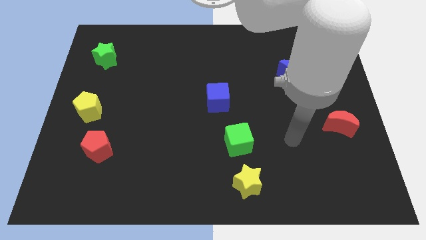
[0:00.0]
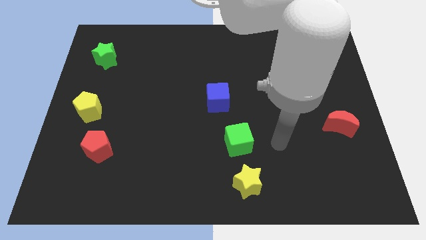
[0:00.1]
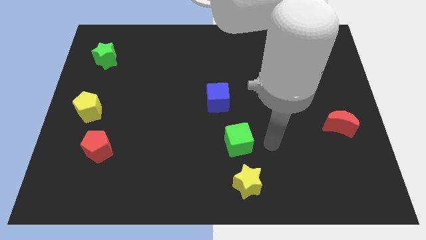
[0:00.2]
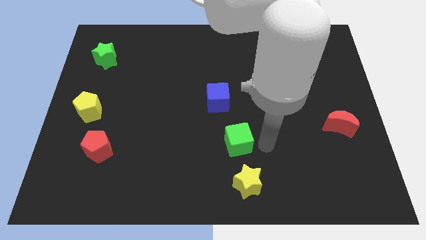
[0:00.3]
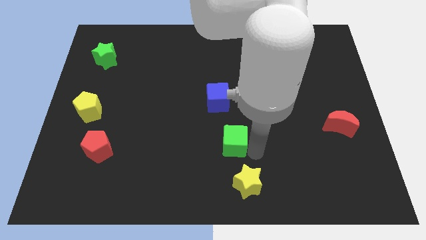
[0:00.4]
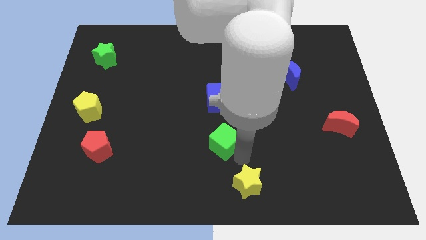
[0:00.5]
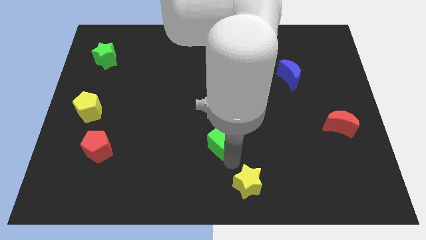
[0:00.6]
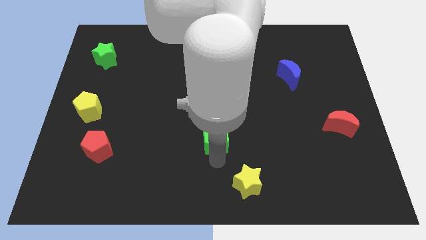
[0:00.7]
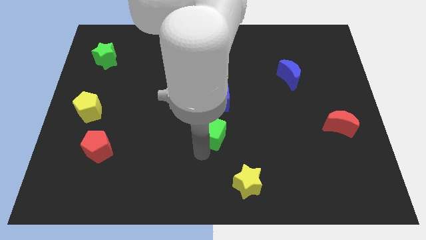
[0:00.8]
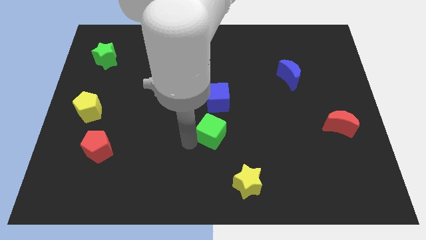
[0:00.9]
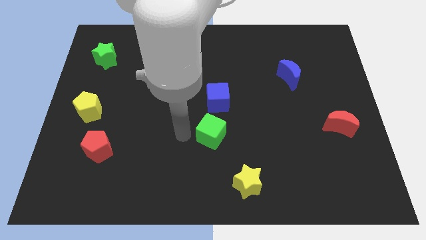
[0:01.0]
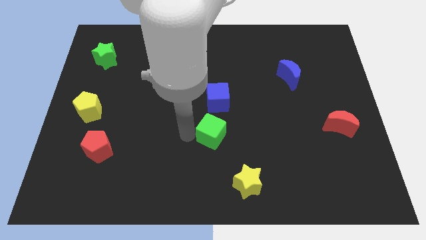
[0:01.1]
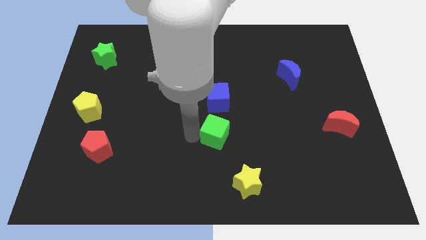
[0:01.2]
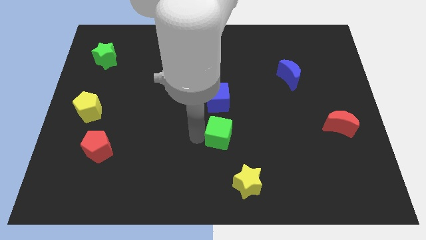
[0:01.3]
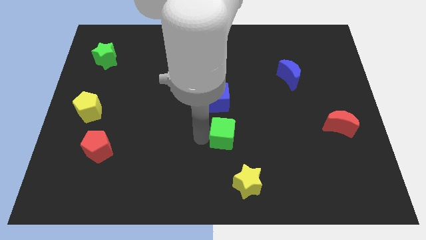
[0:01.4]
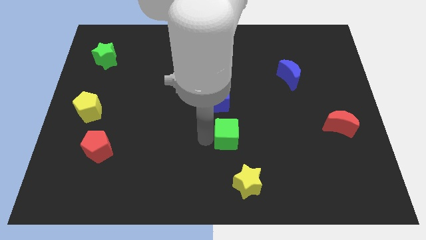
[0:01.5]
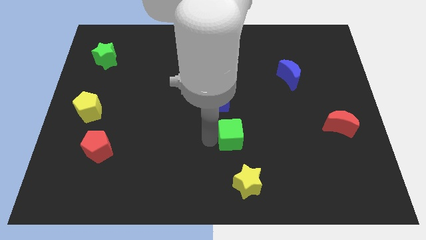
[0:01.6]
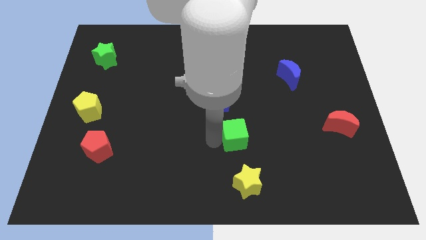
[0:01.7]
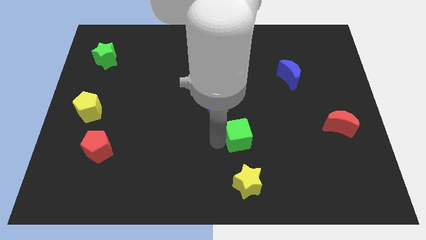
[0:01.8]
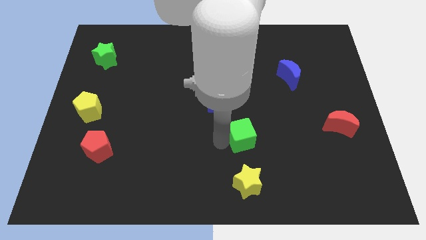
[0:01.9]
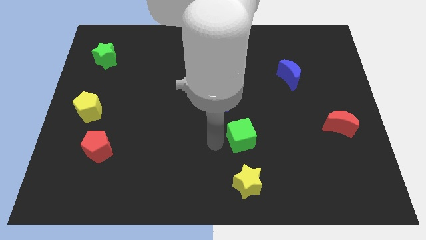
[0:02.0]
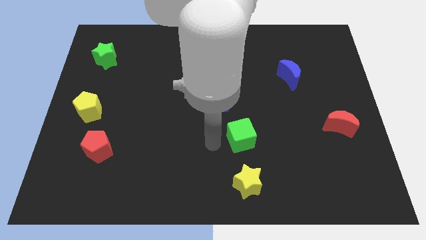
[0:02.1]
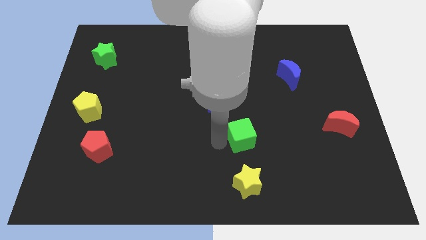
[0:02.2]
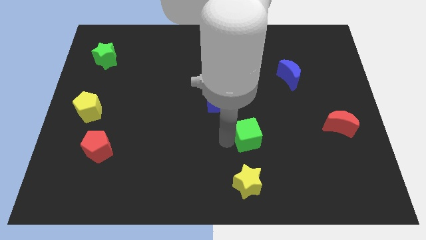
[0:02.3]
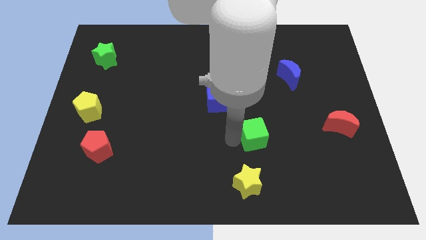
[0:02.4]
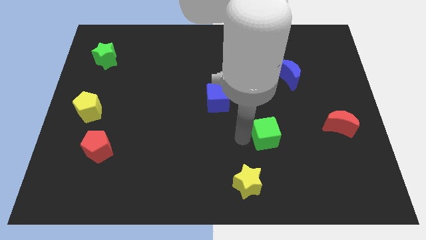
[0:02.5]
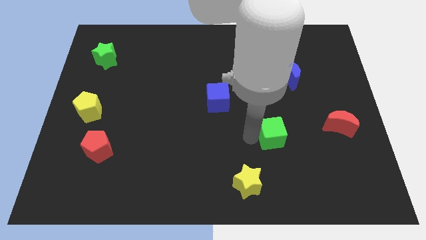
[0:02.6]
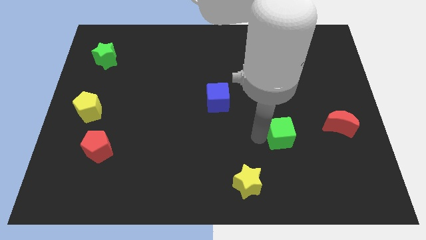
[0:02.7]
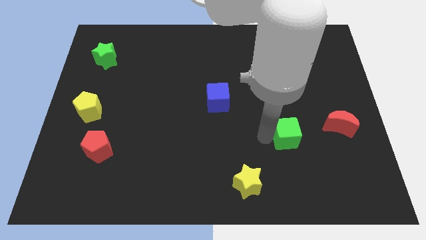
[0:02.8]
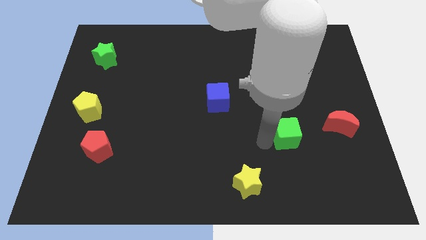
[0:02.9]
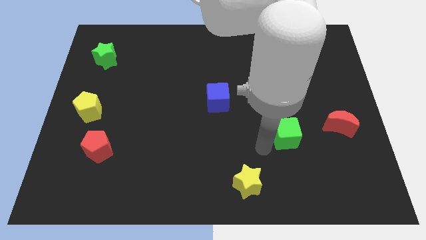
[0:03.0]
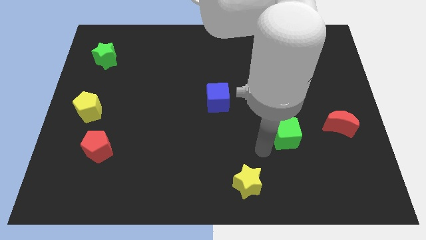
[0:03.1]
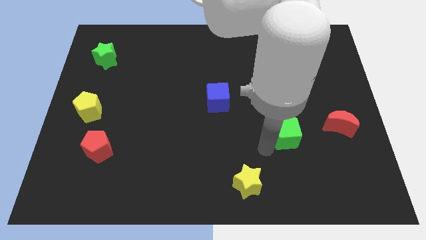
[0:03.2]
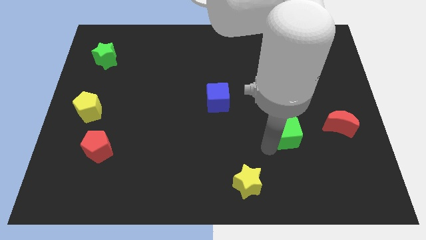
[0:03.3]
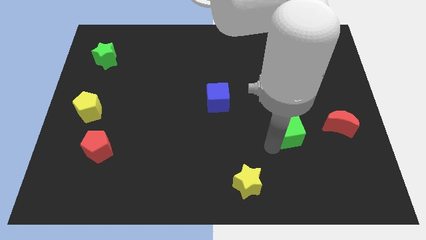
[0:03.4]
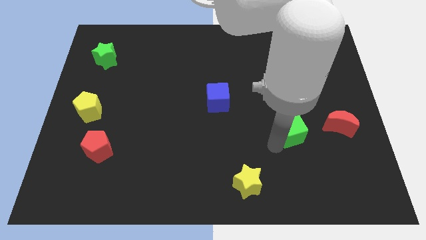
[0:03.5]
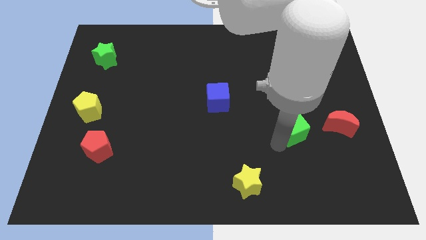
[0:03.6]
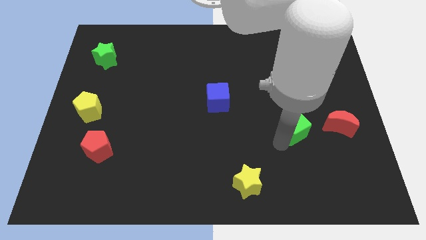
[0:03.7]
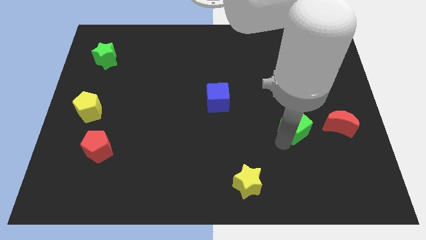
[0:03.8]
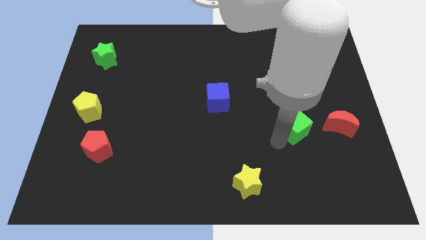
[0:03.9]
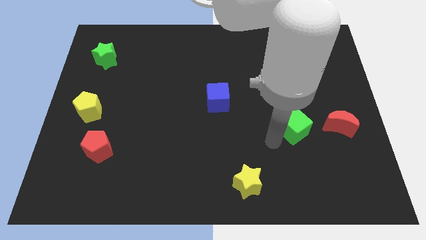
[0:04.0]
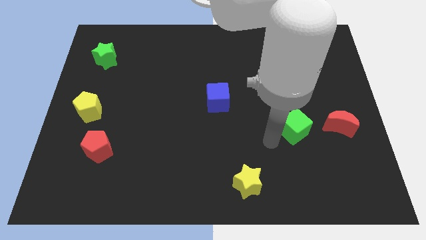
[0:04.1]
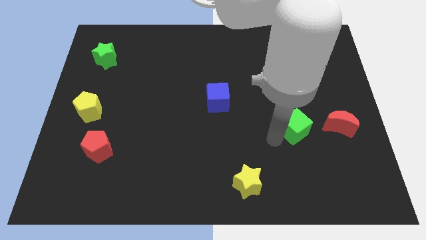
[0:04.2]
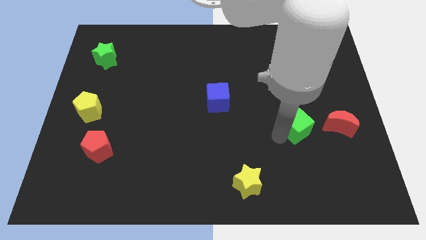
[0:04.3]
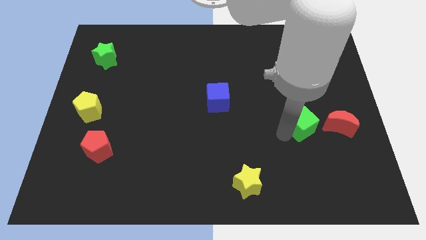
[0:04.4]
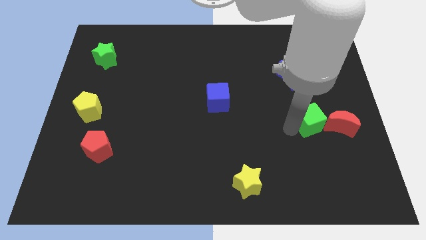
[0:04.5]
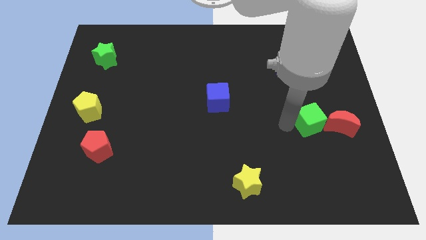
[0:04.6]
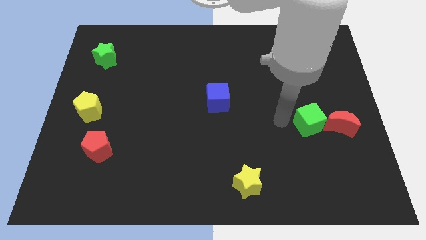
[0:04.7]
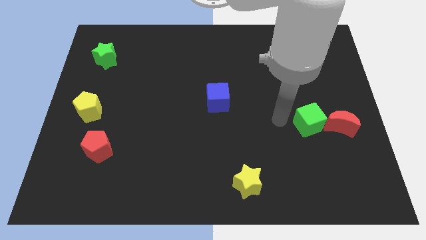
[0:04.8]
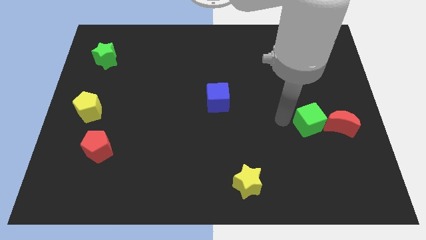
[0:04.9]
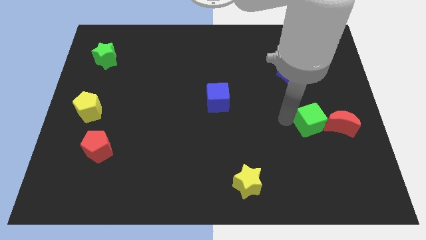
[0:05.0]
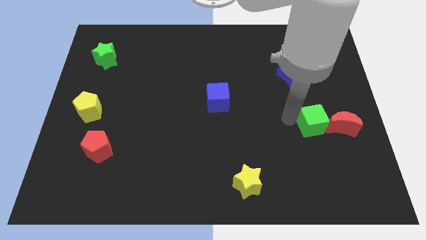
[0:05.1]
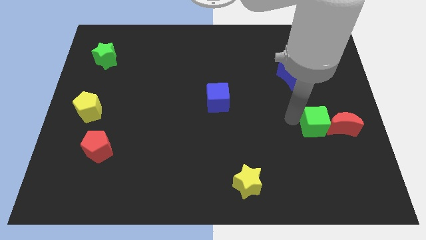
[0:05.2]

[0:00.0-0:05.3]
move the green cube to the red moon

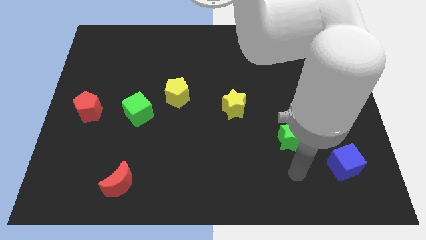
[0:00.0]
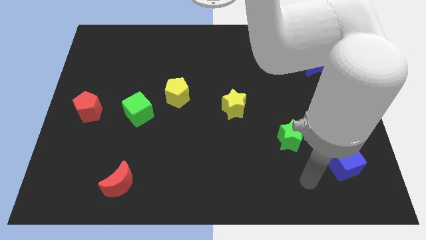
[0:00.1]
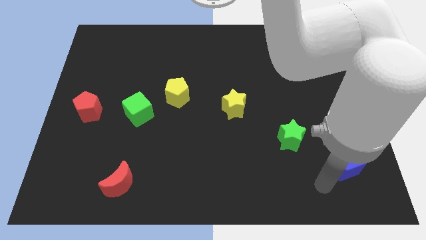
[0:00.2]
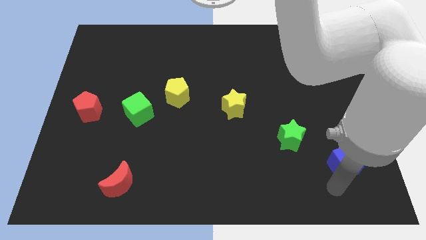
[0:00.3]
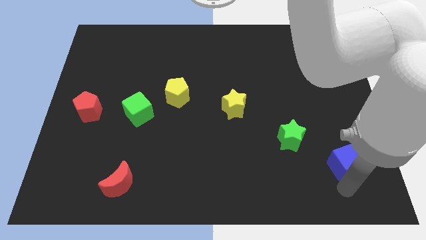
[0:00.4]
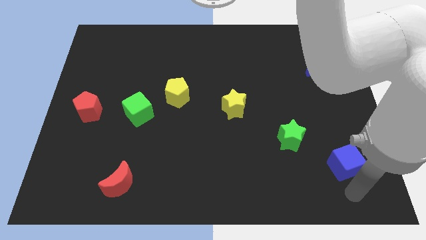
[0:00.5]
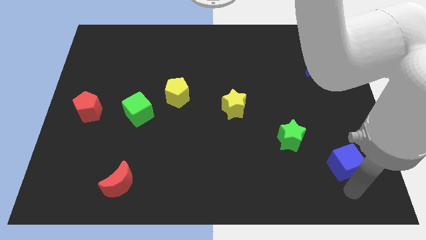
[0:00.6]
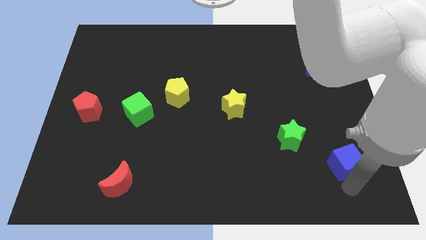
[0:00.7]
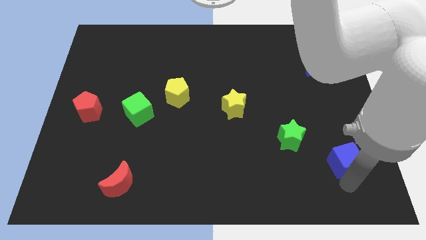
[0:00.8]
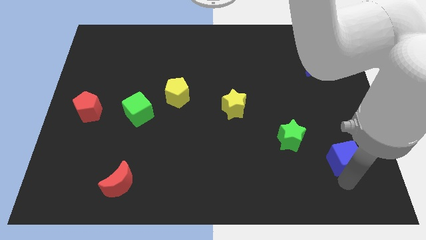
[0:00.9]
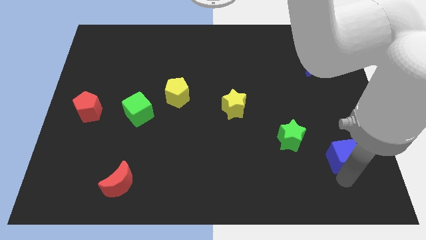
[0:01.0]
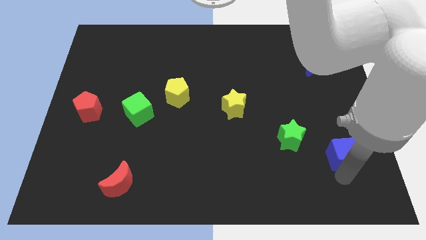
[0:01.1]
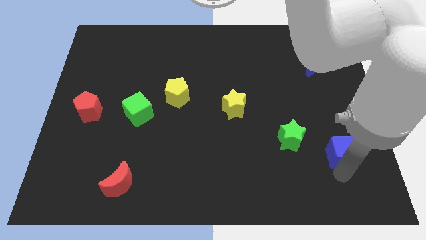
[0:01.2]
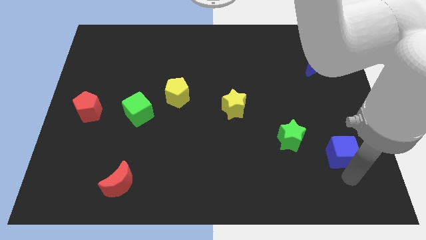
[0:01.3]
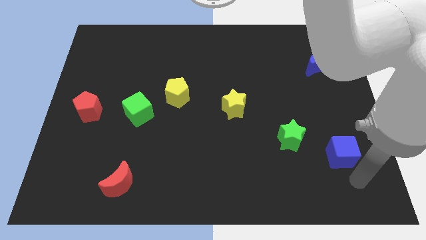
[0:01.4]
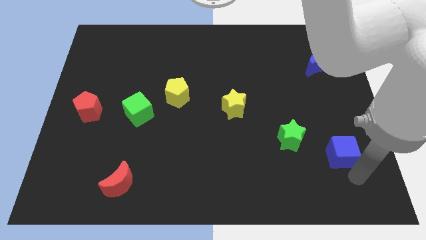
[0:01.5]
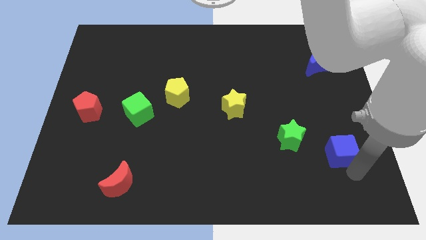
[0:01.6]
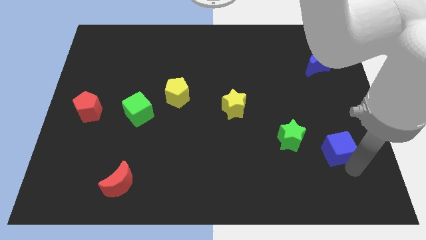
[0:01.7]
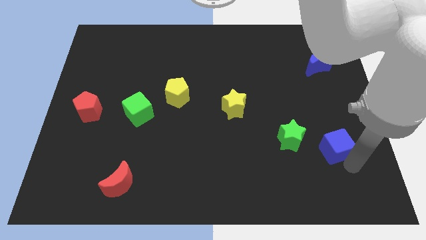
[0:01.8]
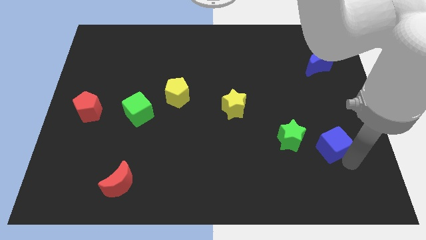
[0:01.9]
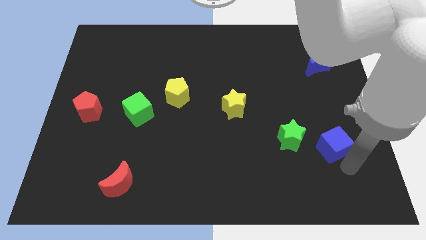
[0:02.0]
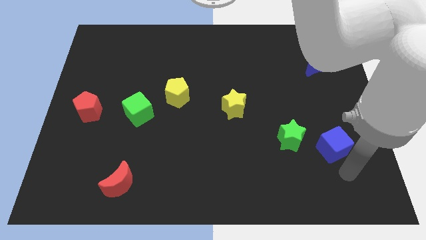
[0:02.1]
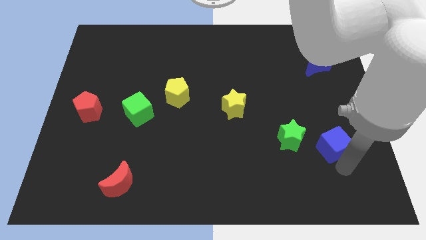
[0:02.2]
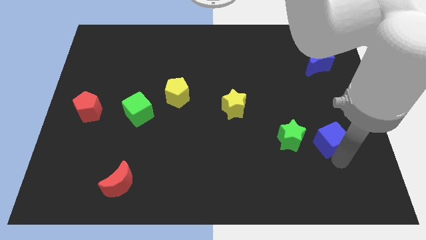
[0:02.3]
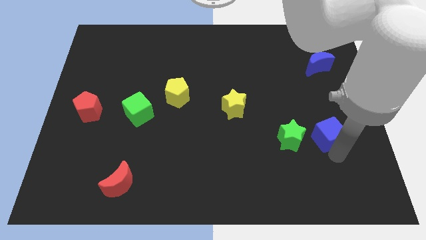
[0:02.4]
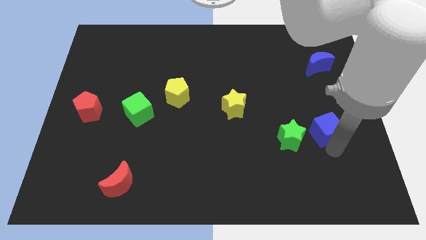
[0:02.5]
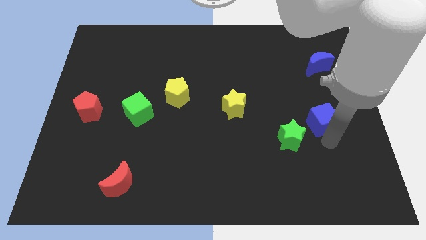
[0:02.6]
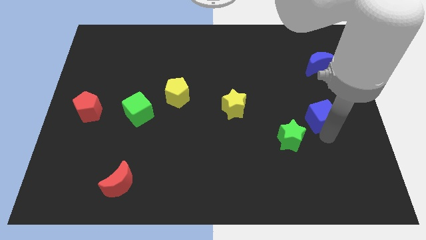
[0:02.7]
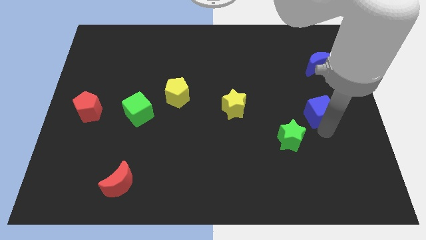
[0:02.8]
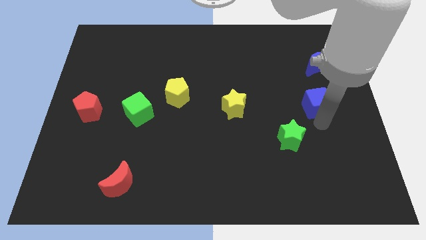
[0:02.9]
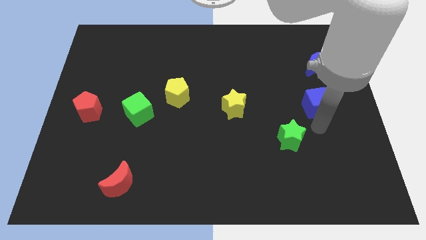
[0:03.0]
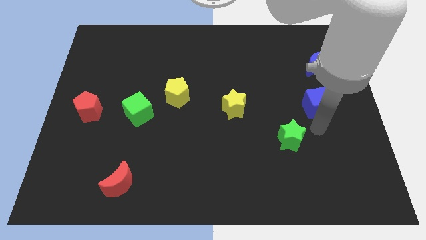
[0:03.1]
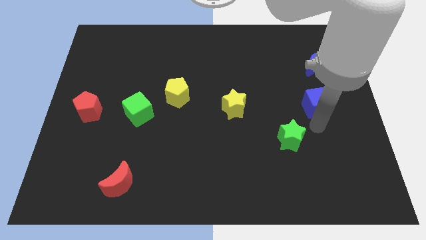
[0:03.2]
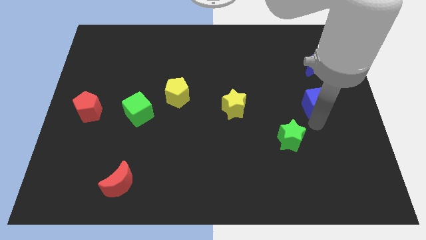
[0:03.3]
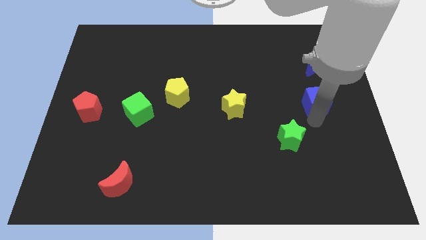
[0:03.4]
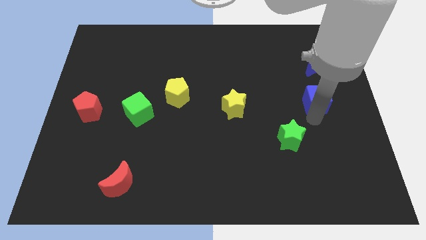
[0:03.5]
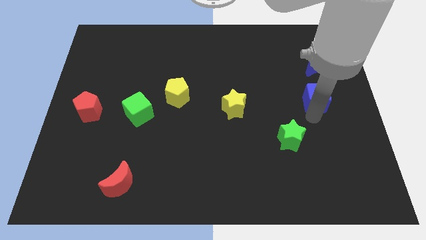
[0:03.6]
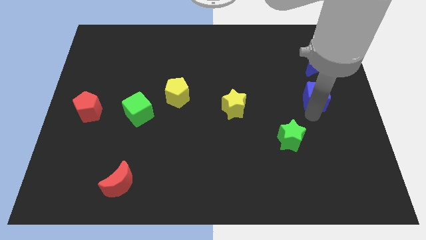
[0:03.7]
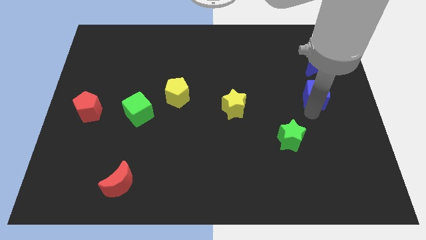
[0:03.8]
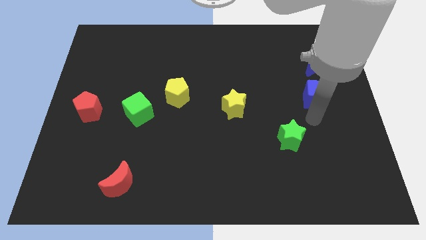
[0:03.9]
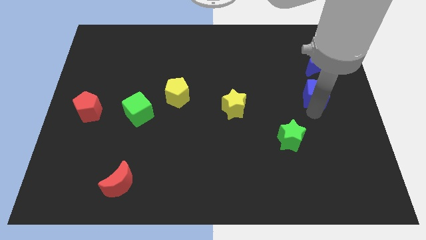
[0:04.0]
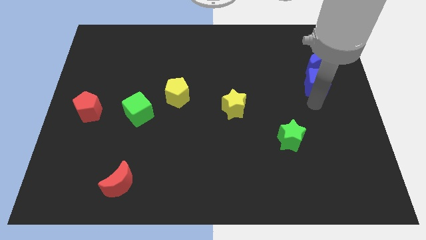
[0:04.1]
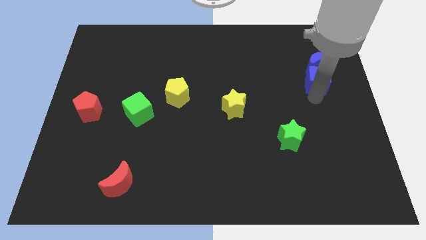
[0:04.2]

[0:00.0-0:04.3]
slide the blue cube next to the blue moon
